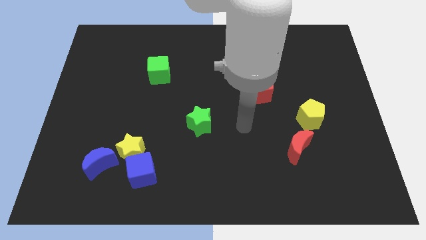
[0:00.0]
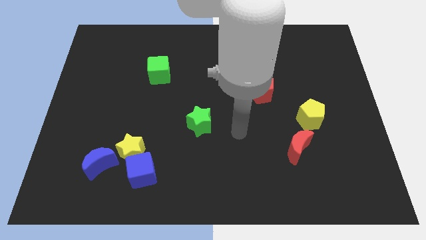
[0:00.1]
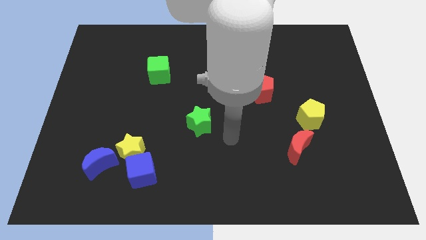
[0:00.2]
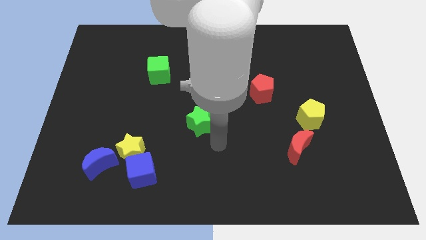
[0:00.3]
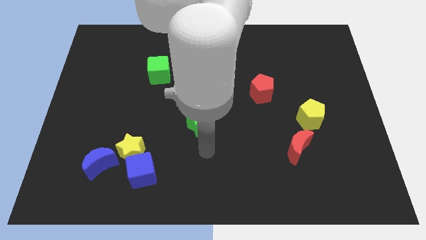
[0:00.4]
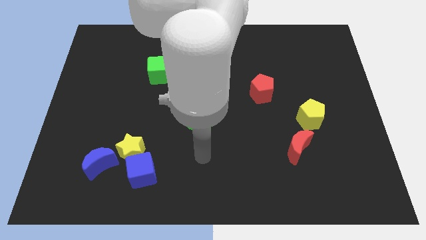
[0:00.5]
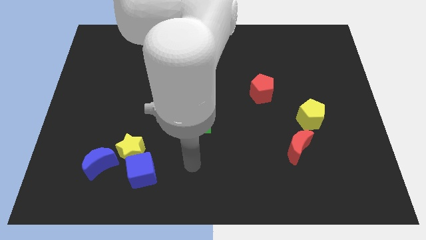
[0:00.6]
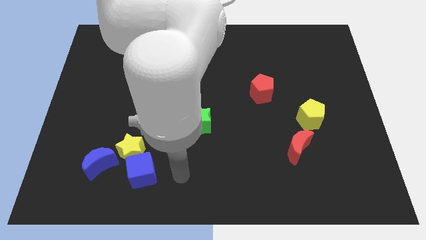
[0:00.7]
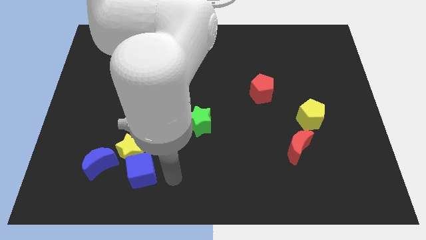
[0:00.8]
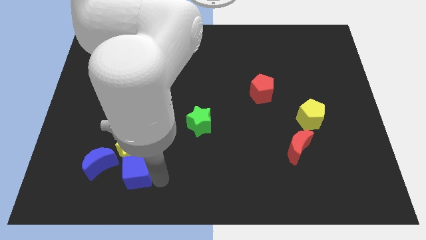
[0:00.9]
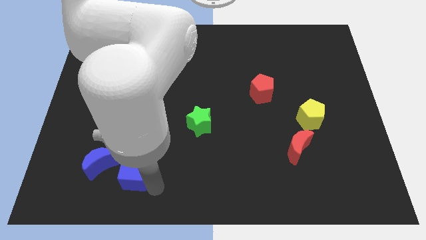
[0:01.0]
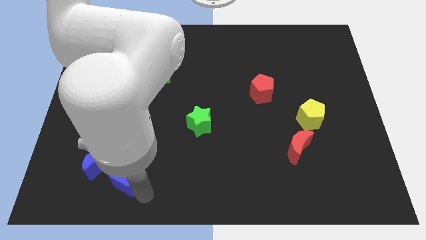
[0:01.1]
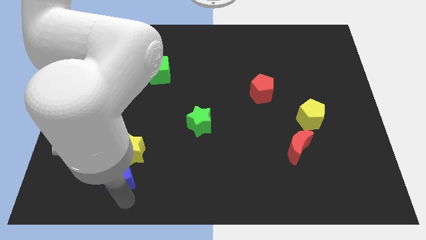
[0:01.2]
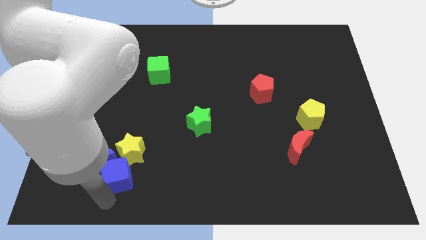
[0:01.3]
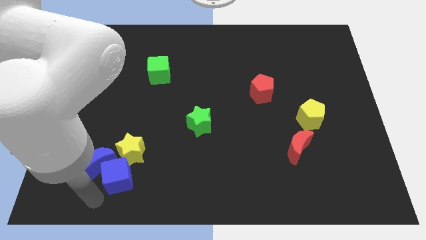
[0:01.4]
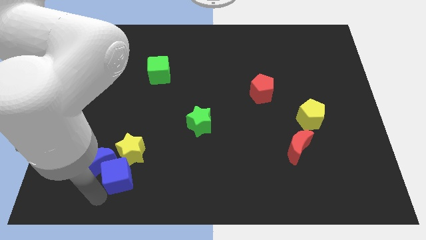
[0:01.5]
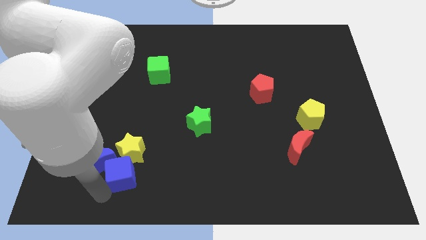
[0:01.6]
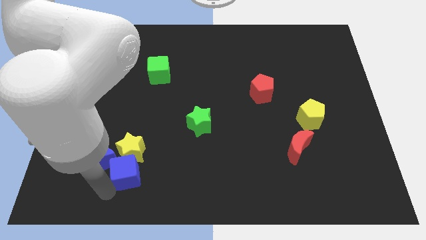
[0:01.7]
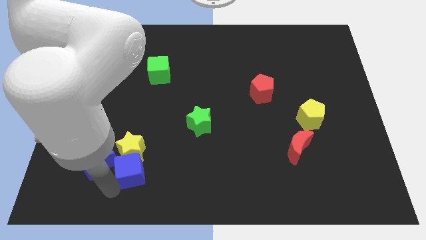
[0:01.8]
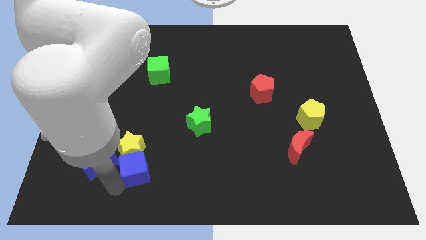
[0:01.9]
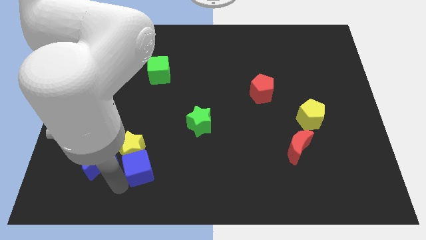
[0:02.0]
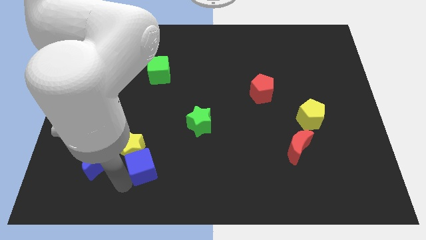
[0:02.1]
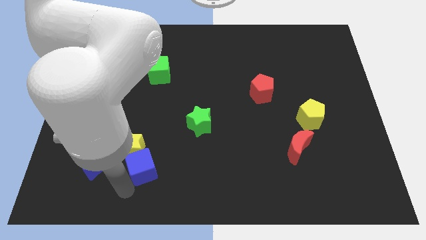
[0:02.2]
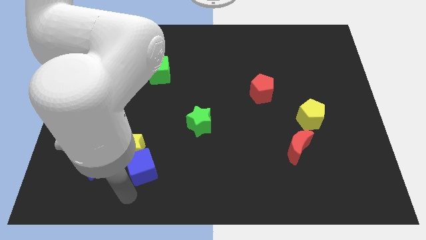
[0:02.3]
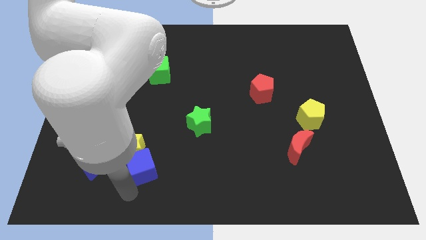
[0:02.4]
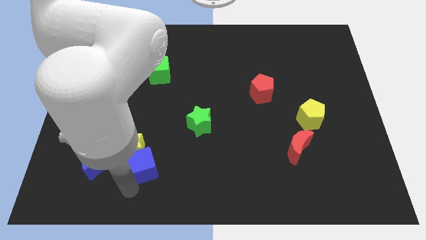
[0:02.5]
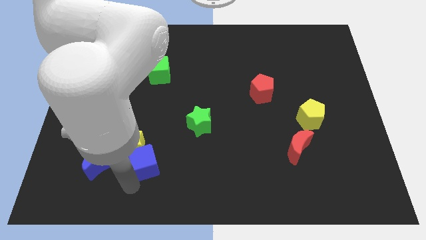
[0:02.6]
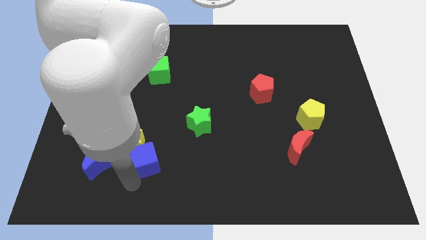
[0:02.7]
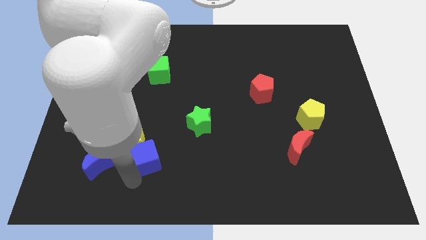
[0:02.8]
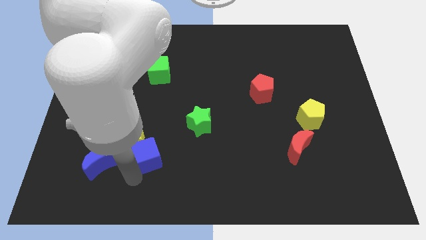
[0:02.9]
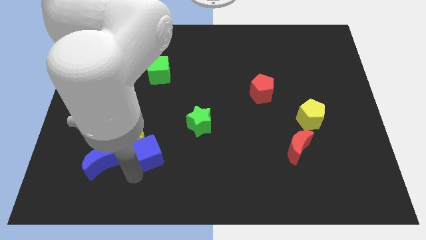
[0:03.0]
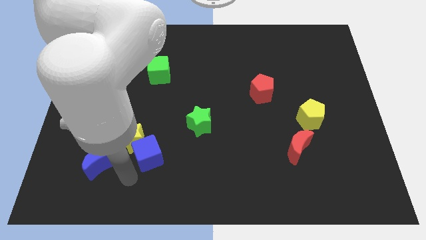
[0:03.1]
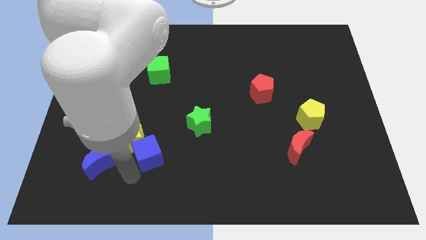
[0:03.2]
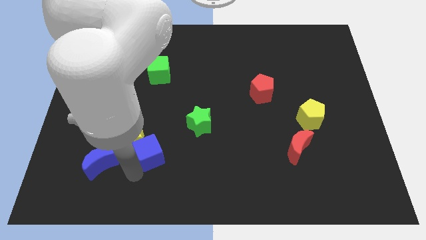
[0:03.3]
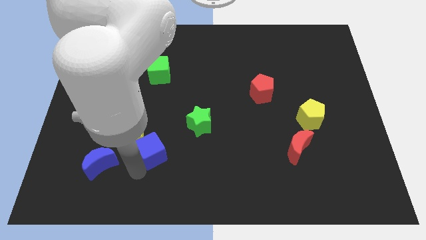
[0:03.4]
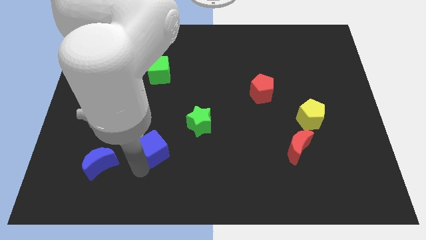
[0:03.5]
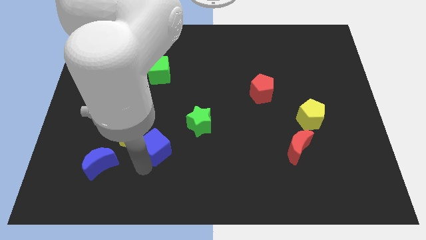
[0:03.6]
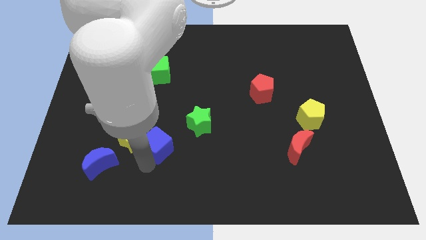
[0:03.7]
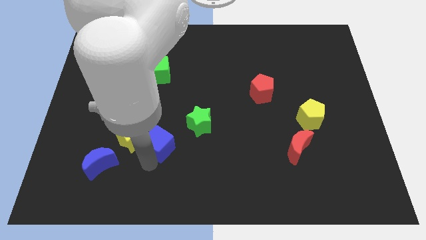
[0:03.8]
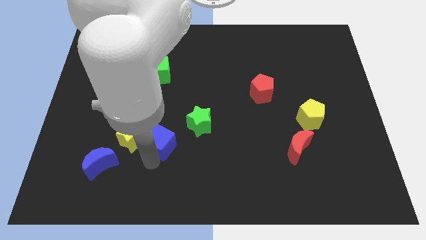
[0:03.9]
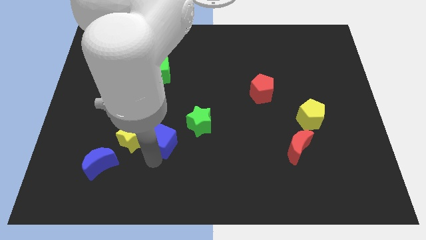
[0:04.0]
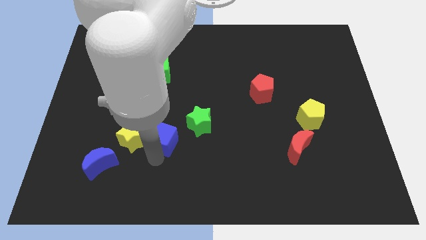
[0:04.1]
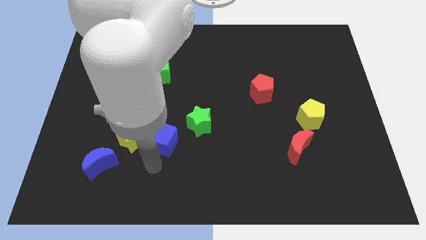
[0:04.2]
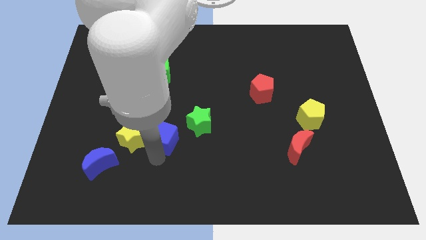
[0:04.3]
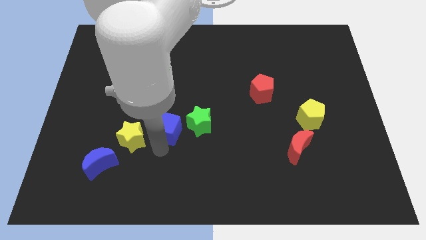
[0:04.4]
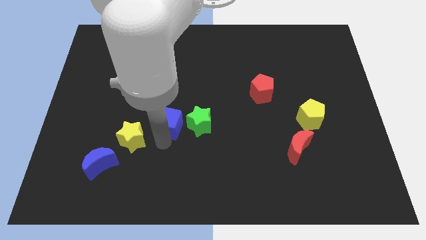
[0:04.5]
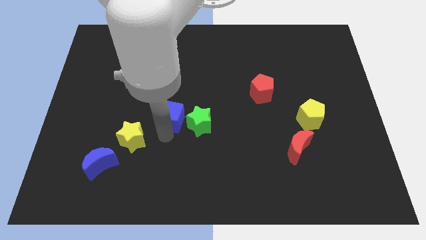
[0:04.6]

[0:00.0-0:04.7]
put the blue cube diagonally up and to the left of the green star

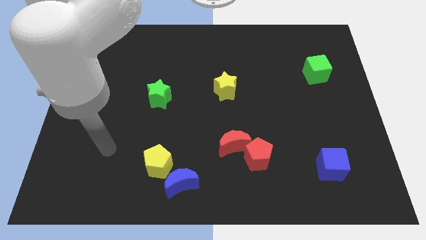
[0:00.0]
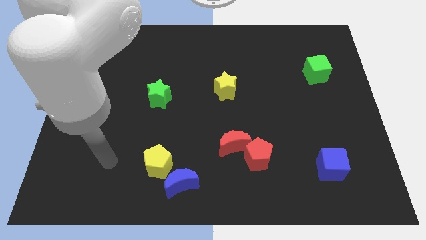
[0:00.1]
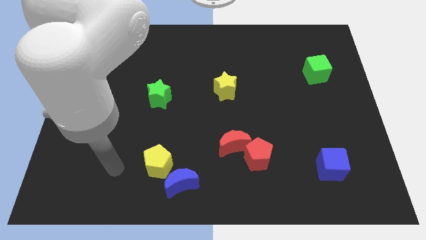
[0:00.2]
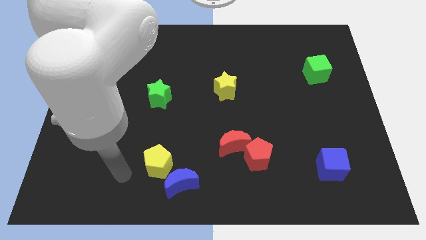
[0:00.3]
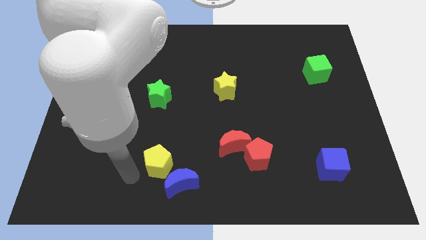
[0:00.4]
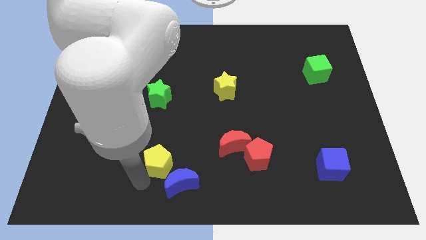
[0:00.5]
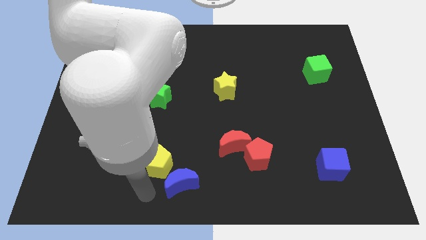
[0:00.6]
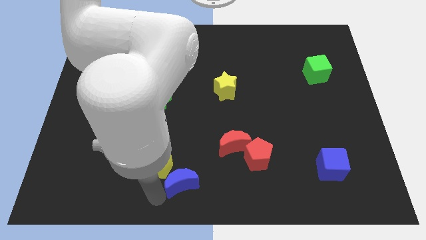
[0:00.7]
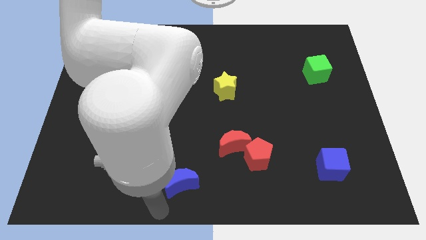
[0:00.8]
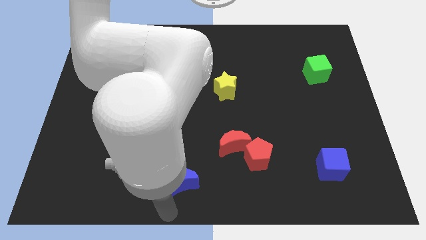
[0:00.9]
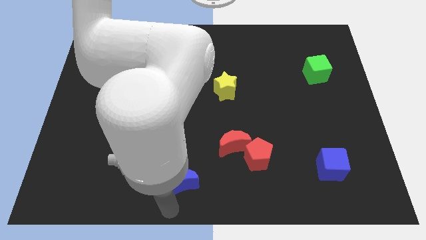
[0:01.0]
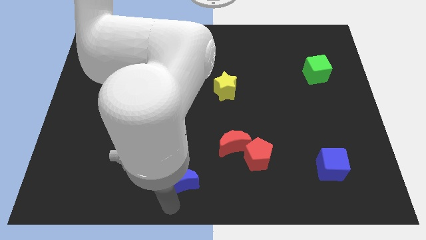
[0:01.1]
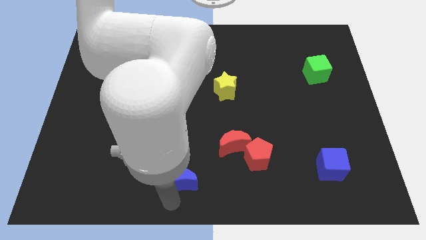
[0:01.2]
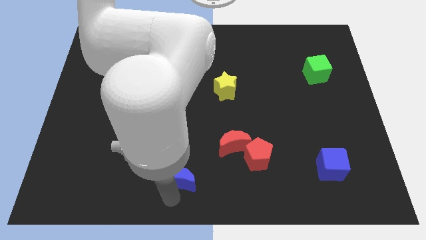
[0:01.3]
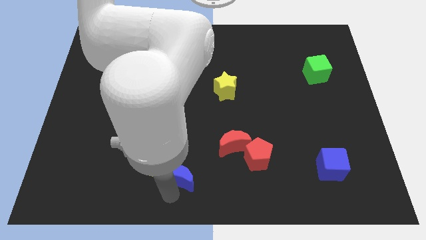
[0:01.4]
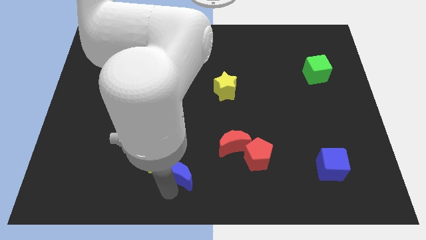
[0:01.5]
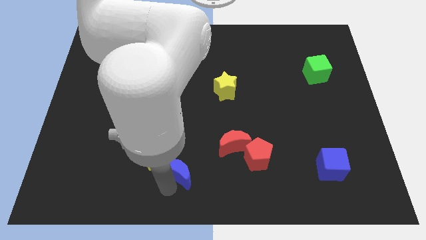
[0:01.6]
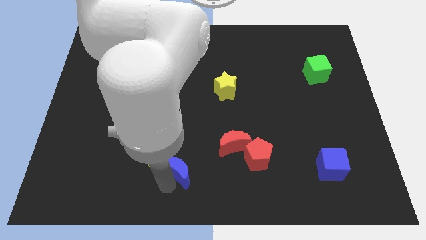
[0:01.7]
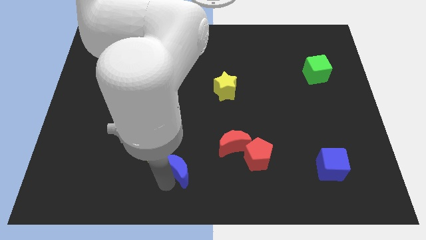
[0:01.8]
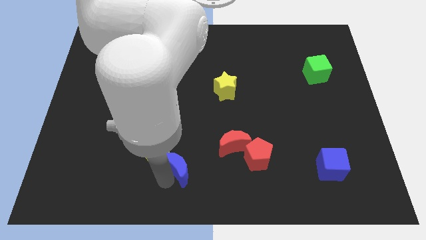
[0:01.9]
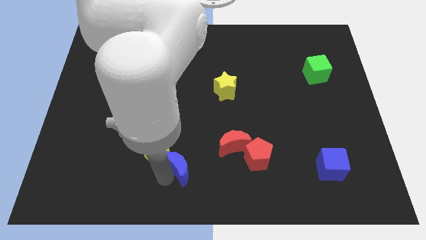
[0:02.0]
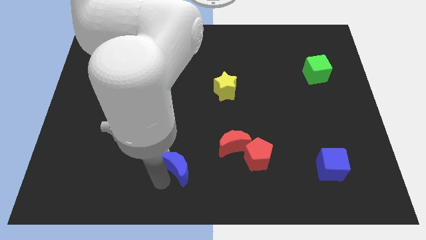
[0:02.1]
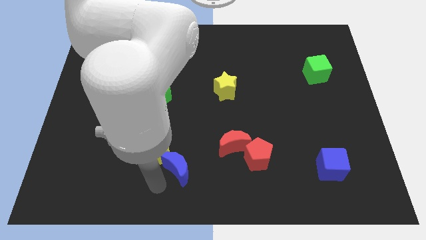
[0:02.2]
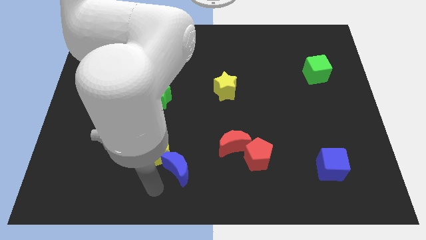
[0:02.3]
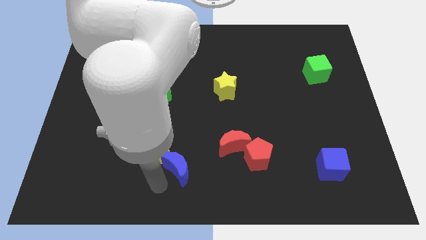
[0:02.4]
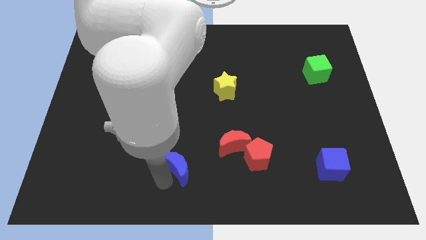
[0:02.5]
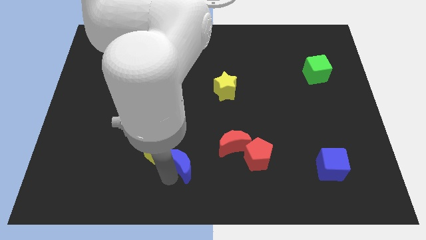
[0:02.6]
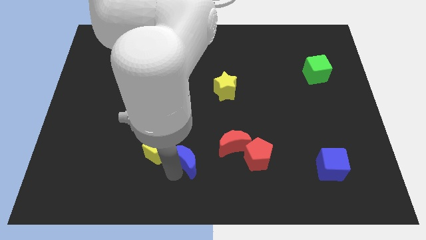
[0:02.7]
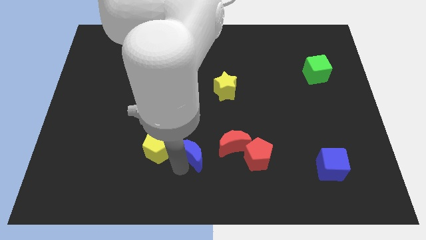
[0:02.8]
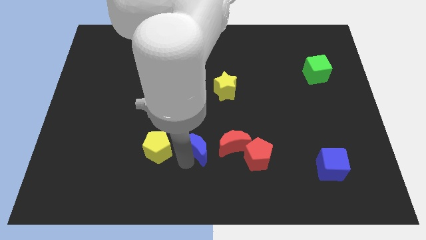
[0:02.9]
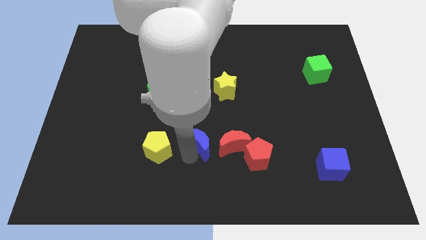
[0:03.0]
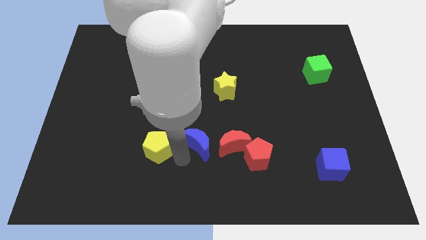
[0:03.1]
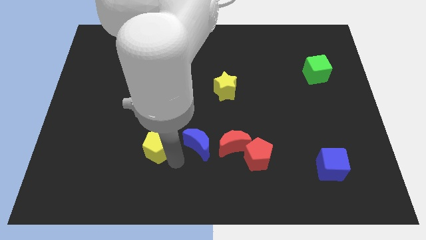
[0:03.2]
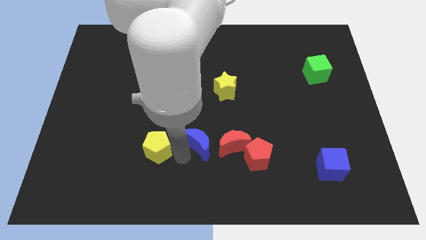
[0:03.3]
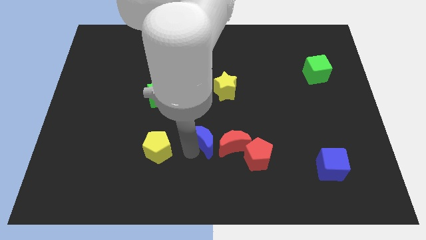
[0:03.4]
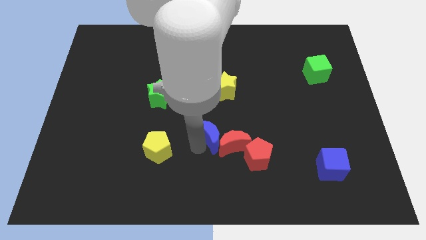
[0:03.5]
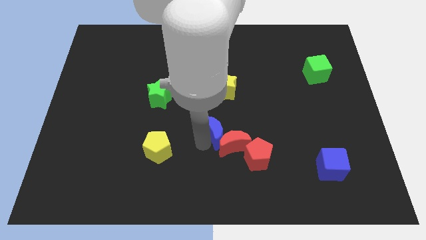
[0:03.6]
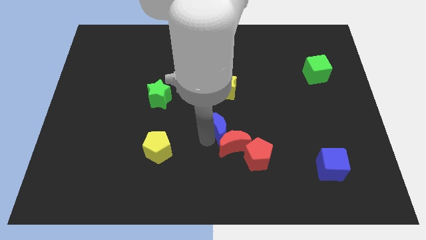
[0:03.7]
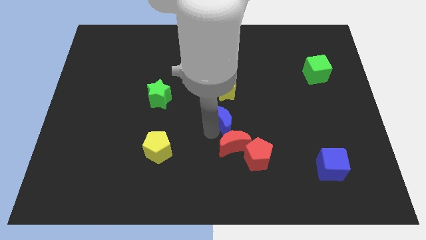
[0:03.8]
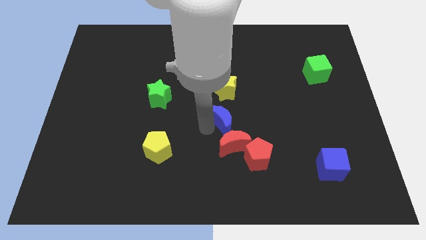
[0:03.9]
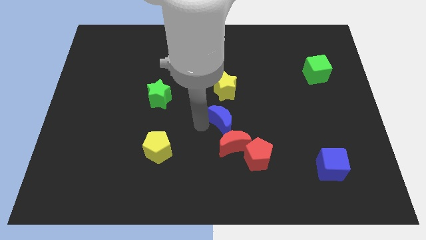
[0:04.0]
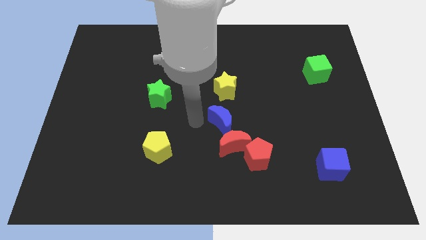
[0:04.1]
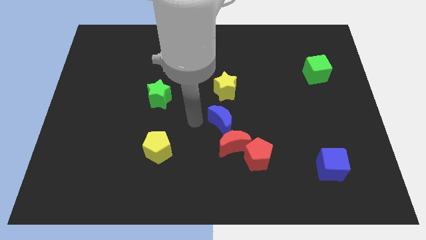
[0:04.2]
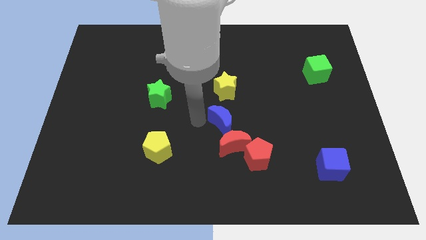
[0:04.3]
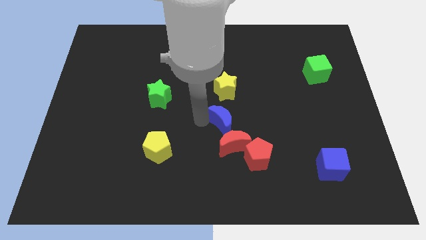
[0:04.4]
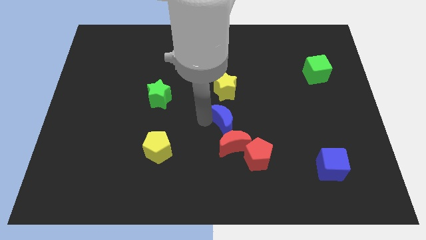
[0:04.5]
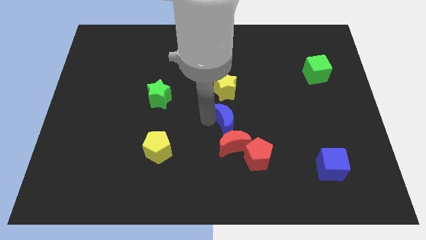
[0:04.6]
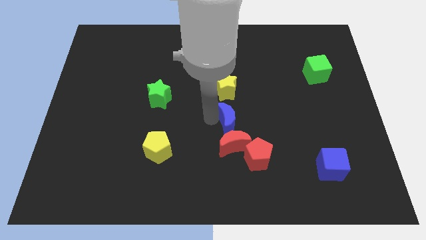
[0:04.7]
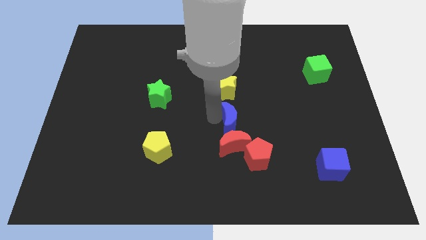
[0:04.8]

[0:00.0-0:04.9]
put the blue moon diagonally up and to the right of the red moon
